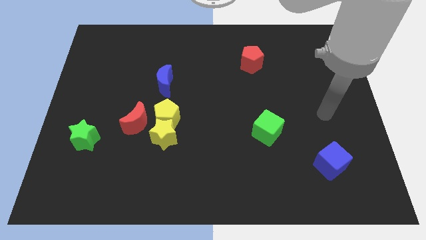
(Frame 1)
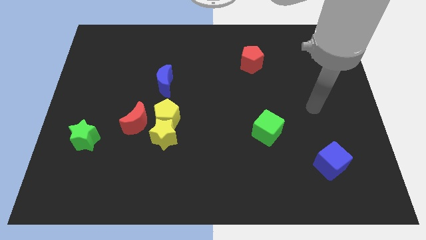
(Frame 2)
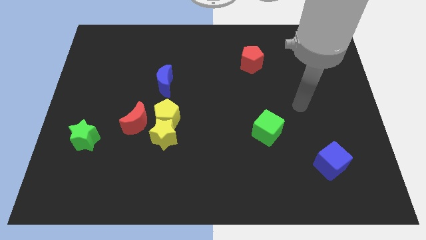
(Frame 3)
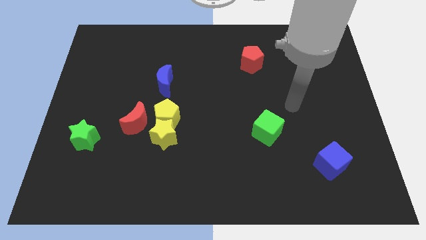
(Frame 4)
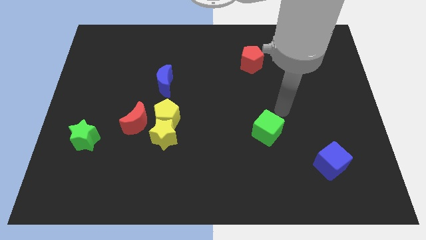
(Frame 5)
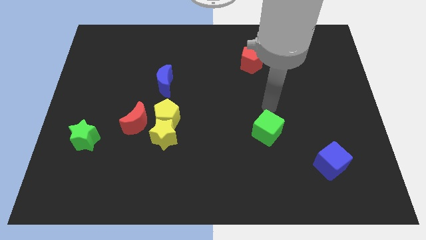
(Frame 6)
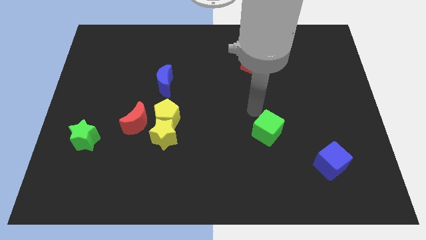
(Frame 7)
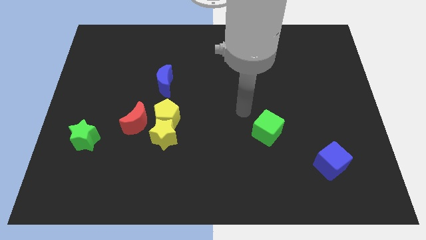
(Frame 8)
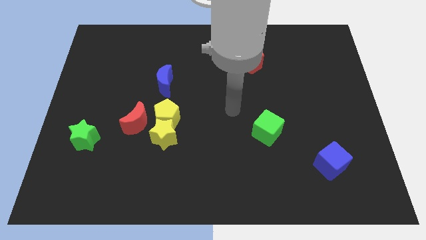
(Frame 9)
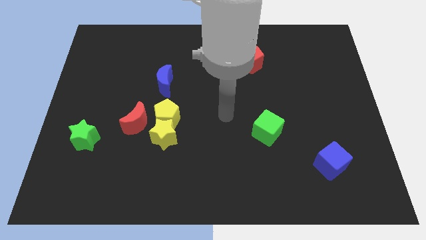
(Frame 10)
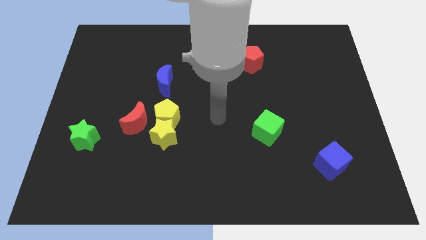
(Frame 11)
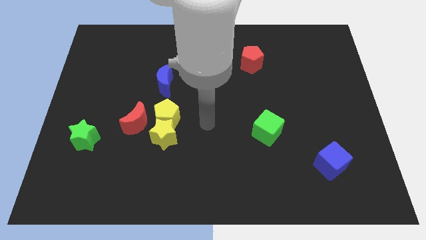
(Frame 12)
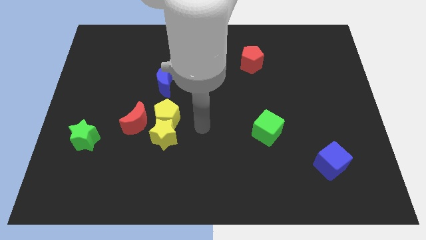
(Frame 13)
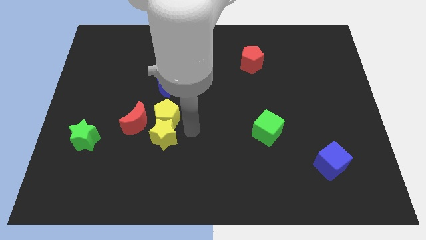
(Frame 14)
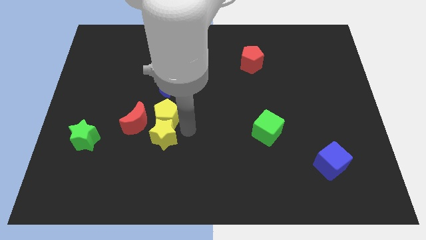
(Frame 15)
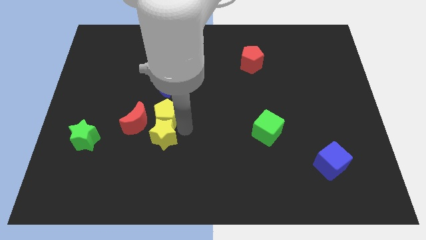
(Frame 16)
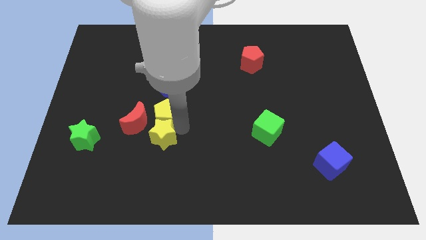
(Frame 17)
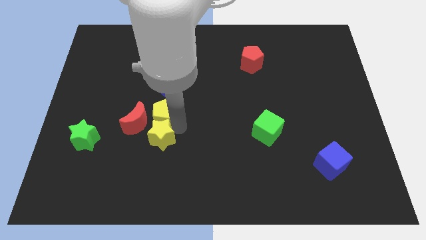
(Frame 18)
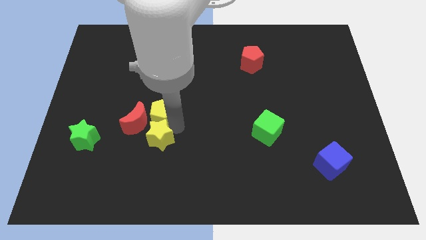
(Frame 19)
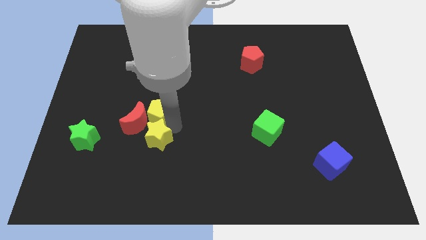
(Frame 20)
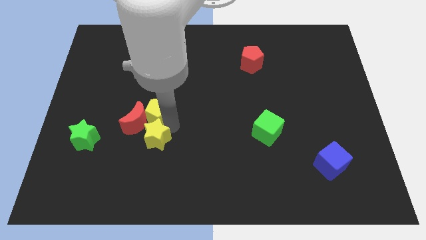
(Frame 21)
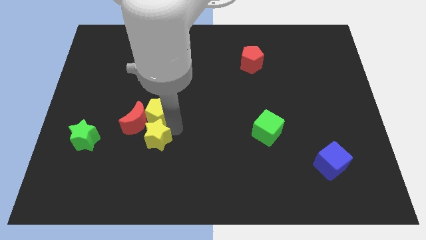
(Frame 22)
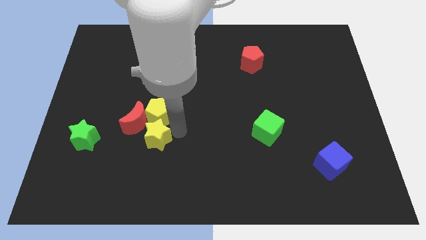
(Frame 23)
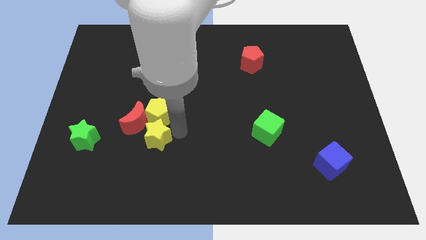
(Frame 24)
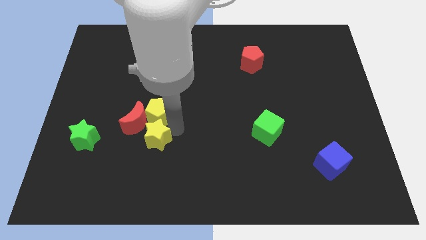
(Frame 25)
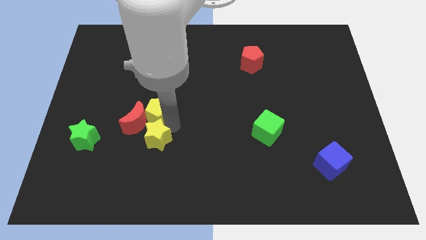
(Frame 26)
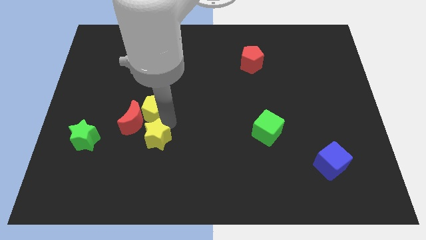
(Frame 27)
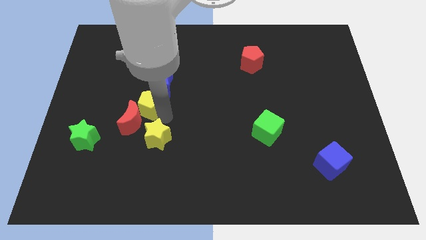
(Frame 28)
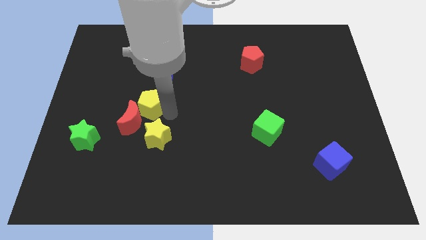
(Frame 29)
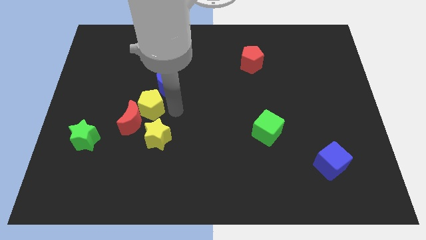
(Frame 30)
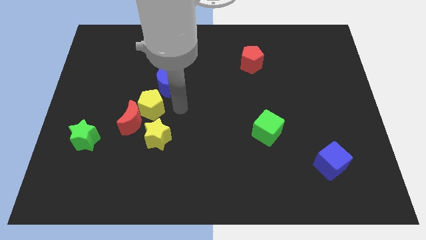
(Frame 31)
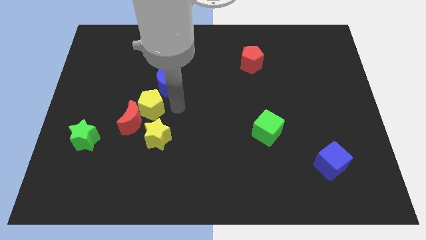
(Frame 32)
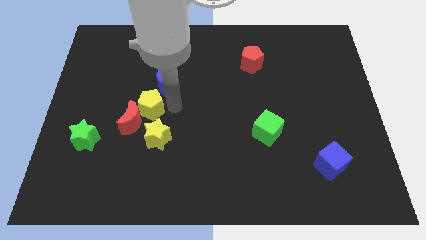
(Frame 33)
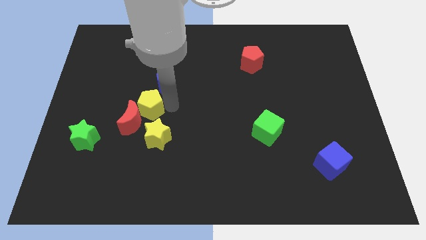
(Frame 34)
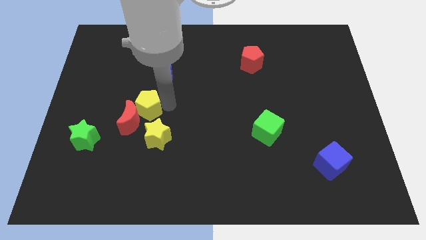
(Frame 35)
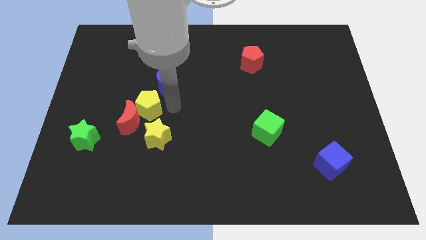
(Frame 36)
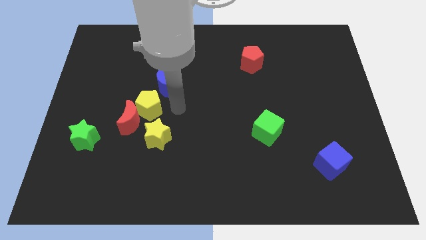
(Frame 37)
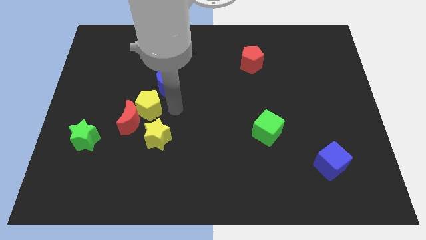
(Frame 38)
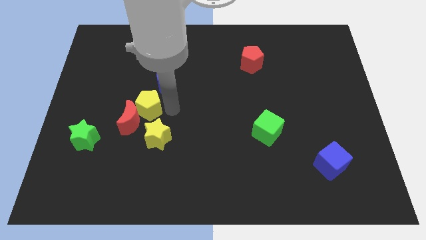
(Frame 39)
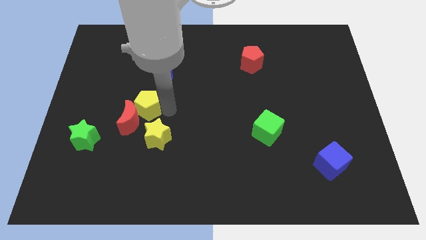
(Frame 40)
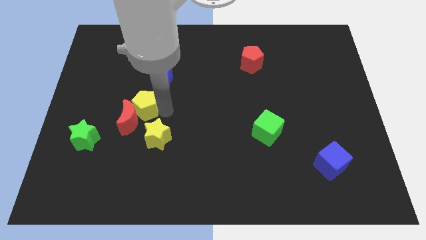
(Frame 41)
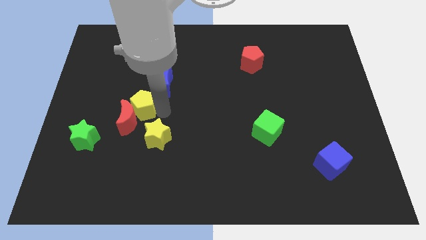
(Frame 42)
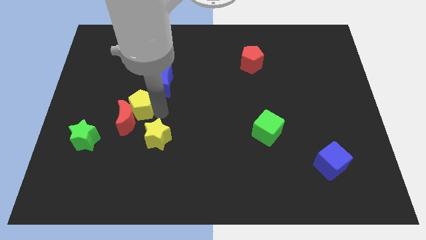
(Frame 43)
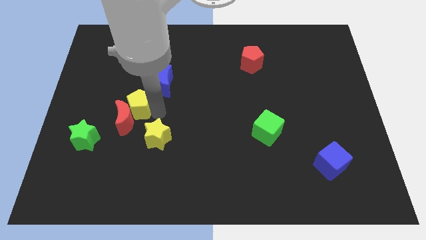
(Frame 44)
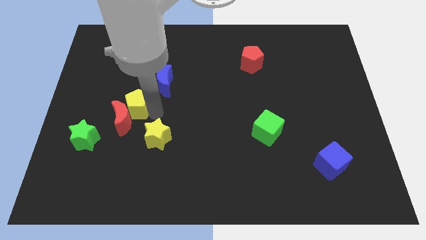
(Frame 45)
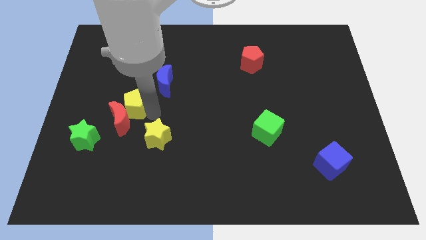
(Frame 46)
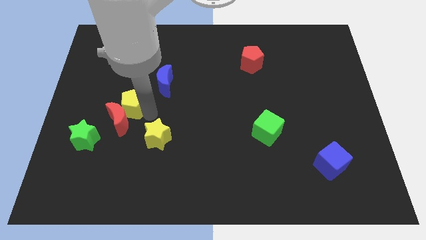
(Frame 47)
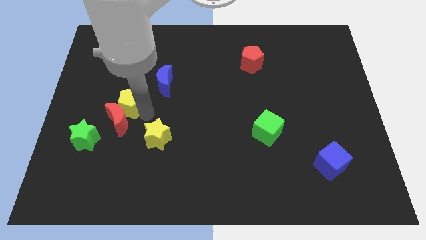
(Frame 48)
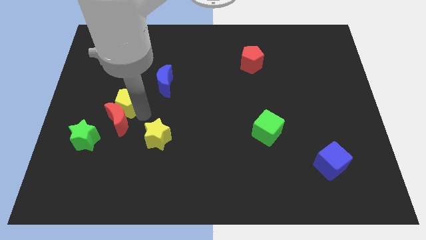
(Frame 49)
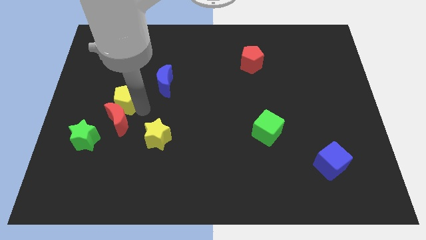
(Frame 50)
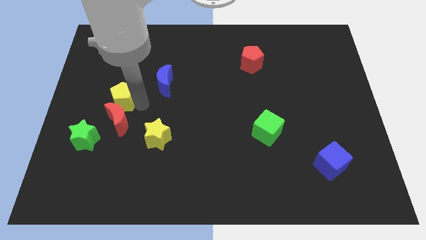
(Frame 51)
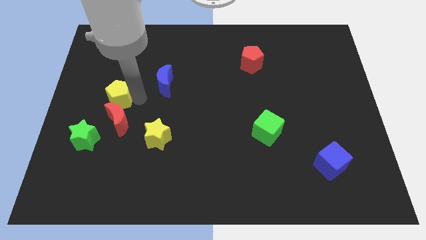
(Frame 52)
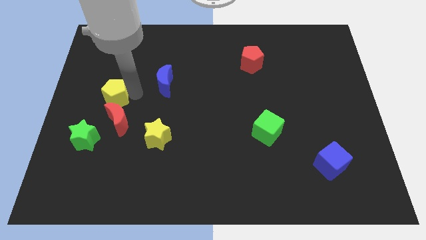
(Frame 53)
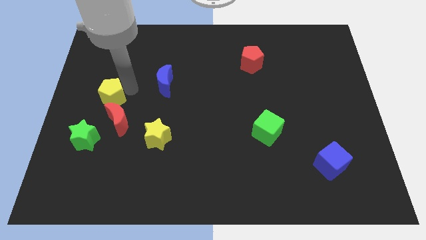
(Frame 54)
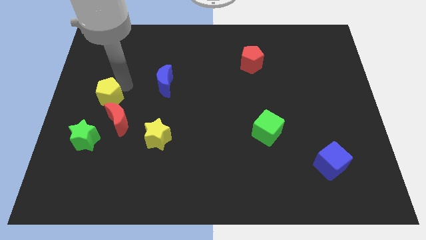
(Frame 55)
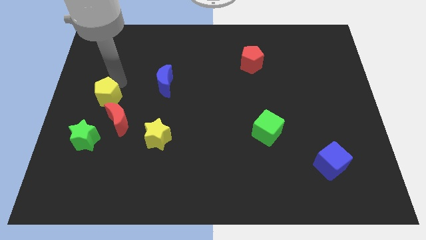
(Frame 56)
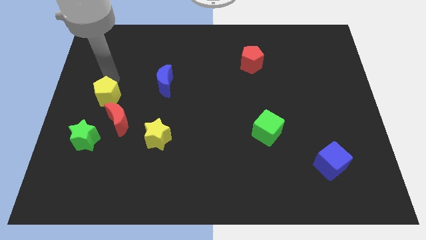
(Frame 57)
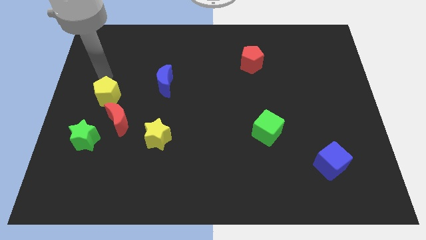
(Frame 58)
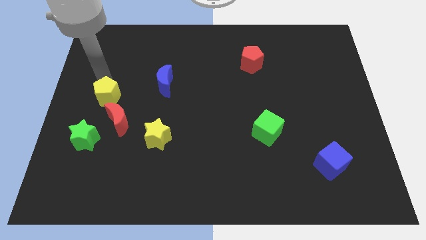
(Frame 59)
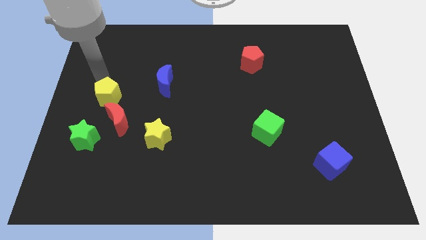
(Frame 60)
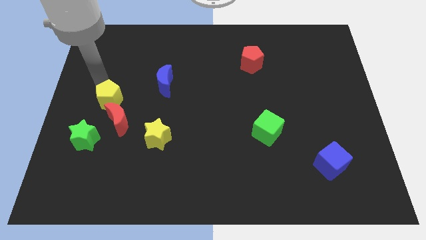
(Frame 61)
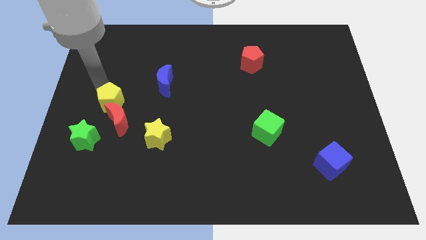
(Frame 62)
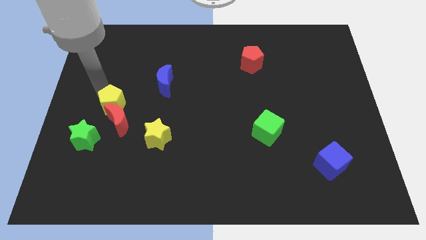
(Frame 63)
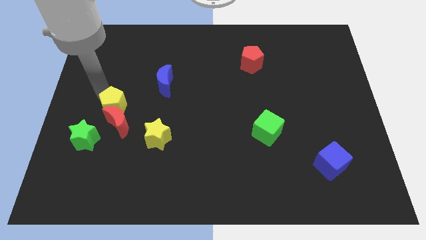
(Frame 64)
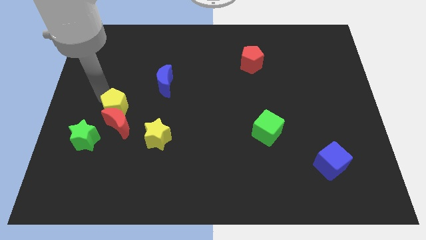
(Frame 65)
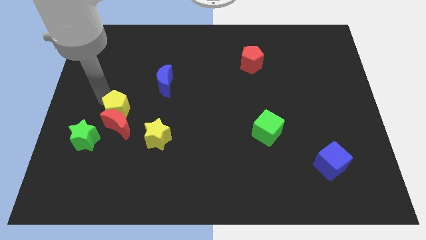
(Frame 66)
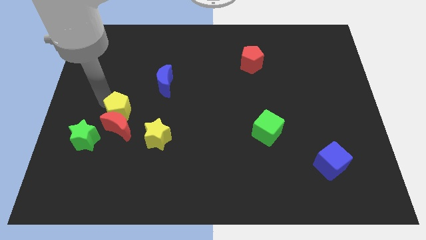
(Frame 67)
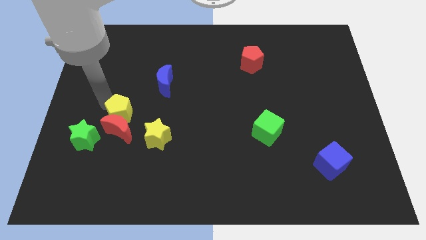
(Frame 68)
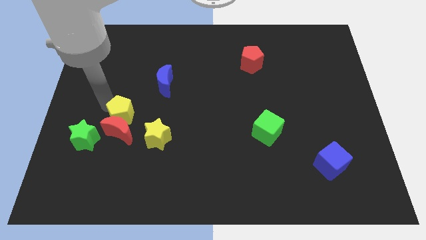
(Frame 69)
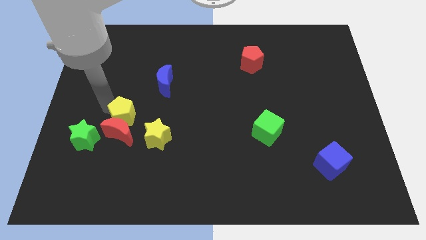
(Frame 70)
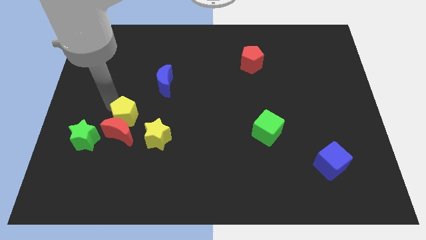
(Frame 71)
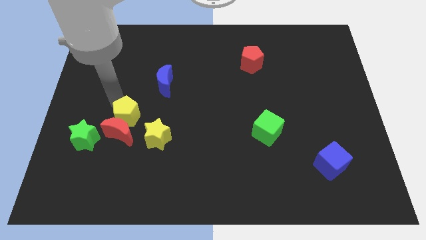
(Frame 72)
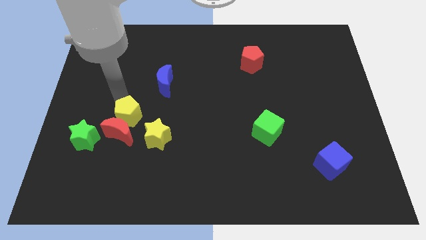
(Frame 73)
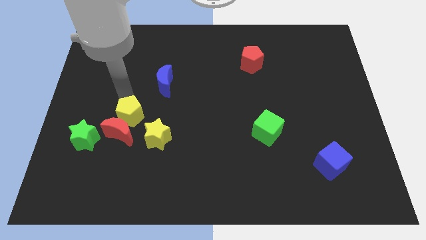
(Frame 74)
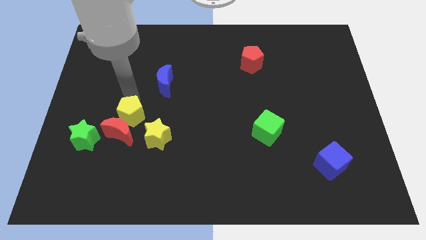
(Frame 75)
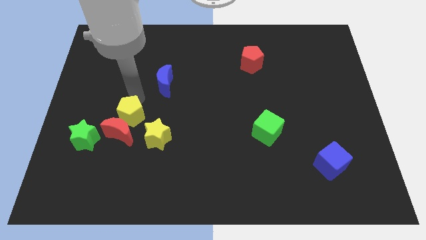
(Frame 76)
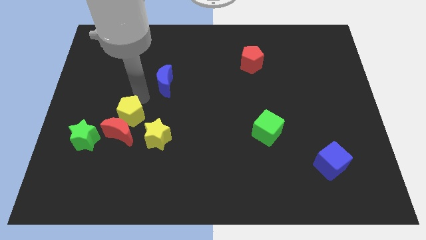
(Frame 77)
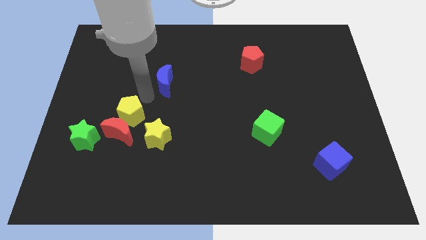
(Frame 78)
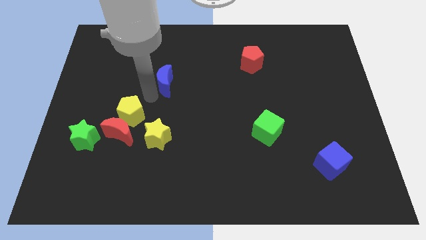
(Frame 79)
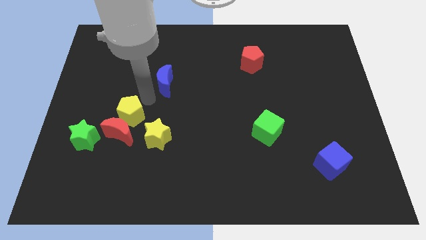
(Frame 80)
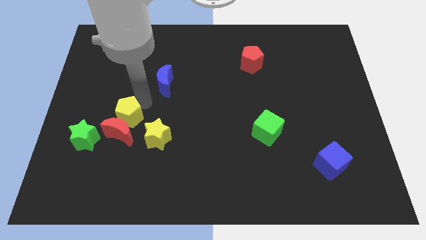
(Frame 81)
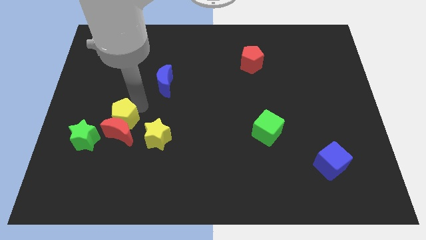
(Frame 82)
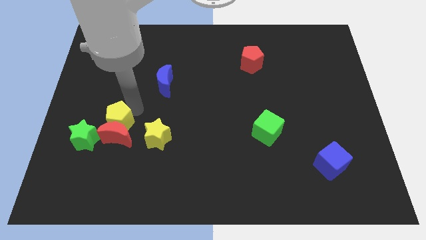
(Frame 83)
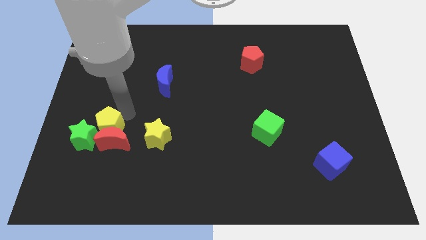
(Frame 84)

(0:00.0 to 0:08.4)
move the yellow pentagon a bit downwards and left diagonally
